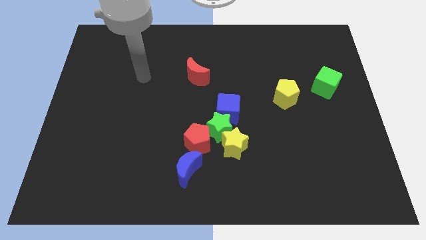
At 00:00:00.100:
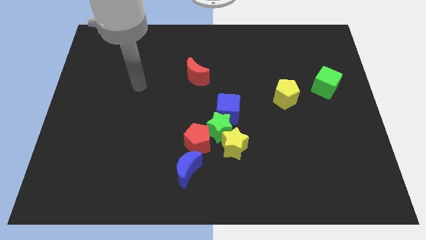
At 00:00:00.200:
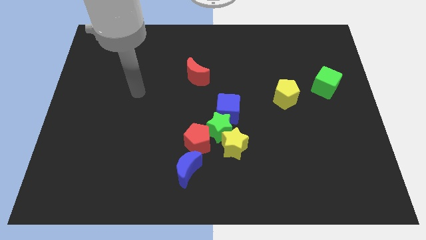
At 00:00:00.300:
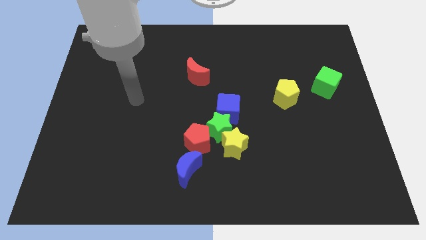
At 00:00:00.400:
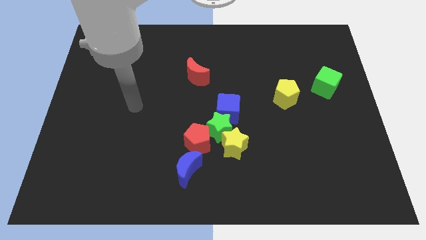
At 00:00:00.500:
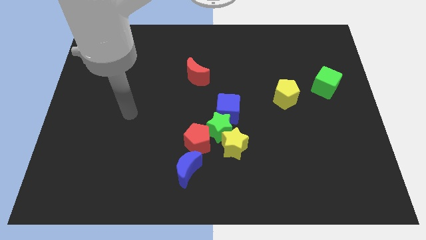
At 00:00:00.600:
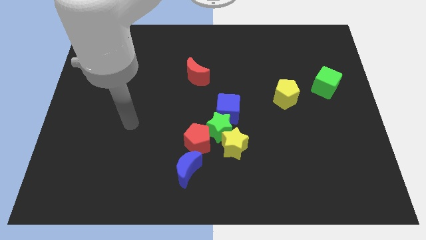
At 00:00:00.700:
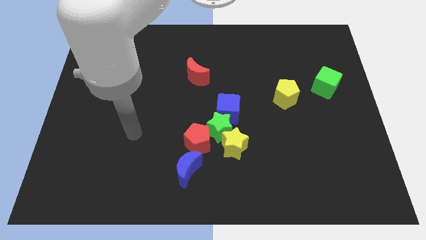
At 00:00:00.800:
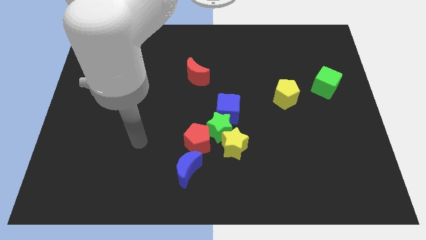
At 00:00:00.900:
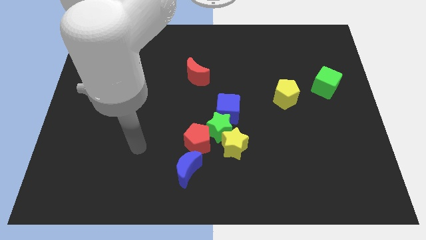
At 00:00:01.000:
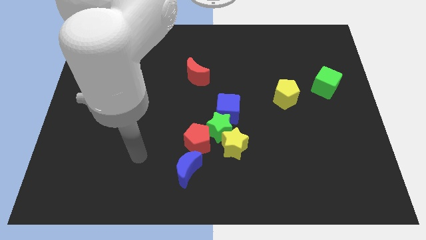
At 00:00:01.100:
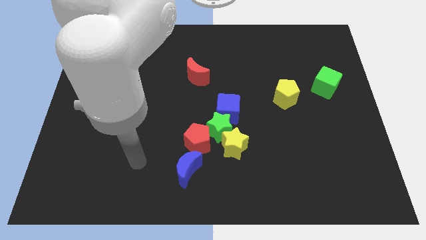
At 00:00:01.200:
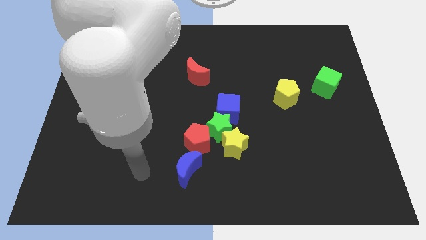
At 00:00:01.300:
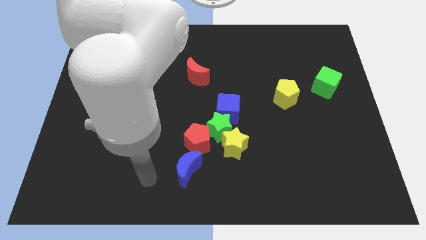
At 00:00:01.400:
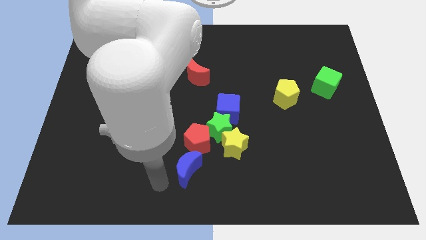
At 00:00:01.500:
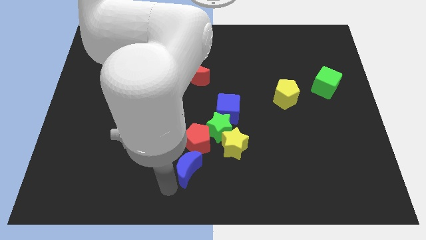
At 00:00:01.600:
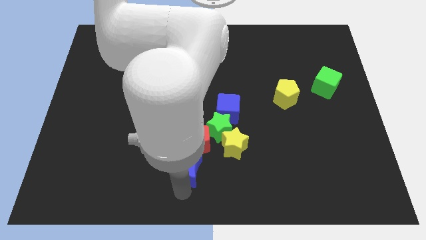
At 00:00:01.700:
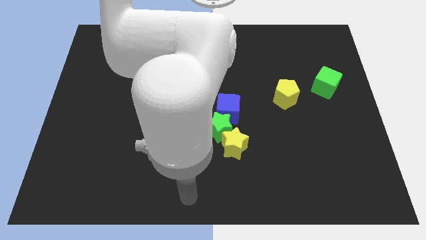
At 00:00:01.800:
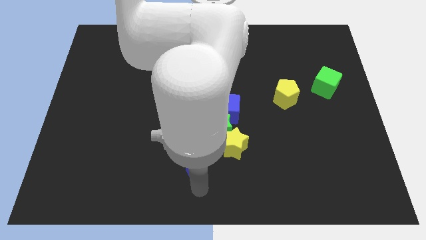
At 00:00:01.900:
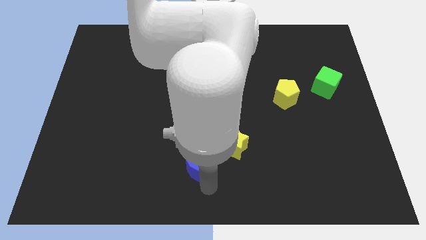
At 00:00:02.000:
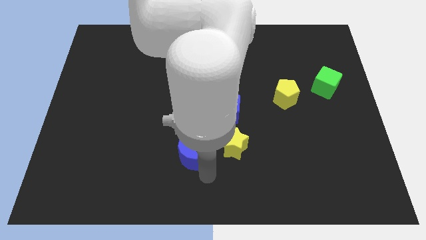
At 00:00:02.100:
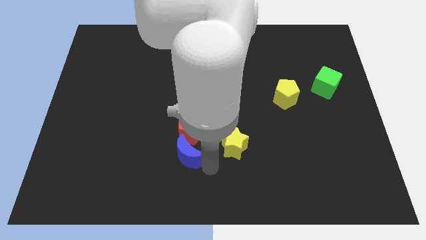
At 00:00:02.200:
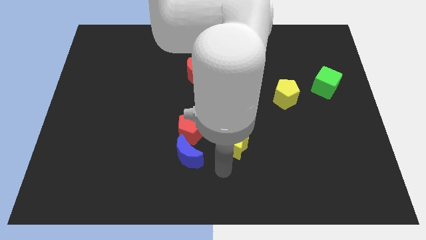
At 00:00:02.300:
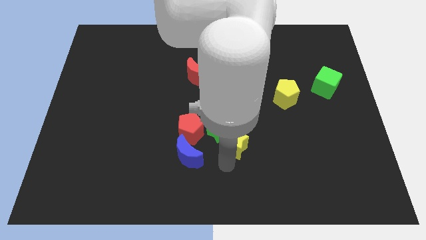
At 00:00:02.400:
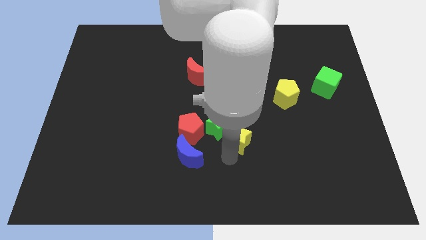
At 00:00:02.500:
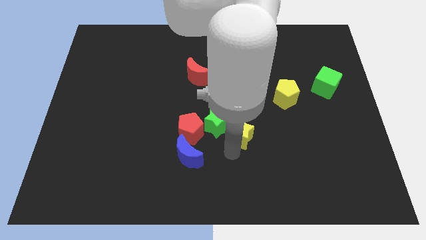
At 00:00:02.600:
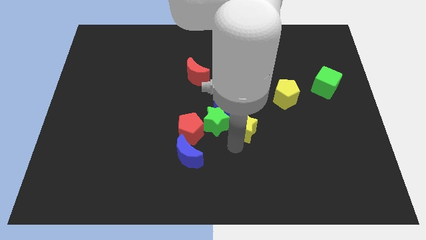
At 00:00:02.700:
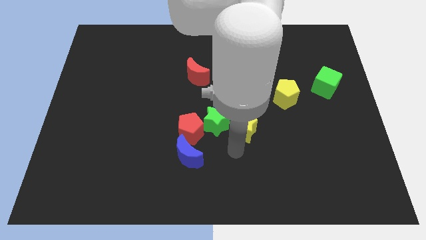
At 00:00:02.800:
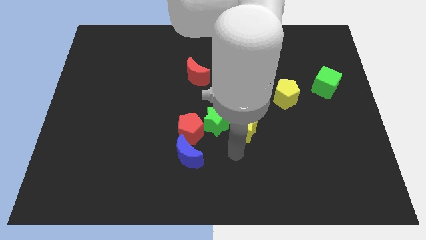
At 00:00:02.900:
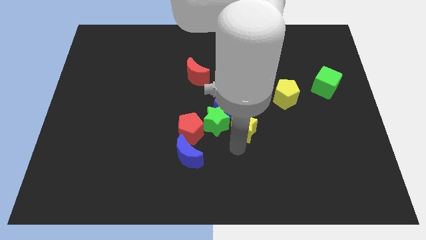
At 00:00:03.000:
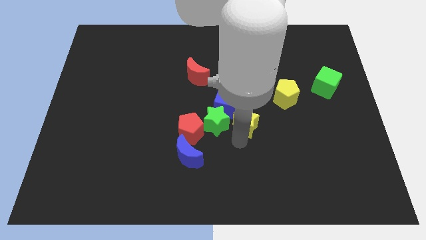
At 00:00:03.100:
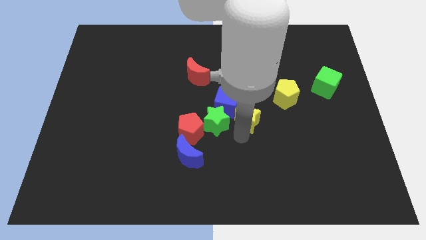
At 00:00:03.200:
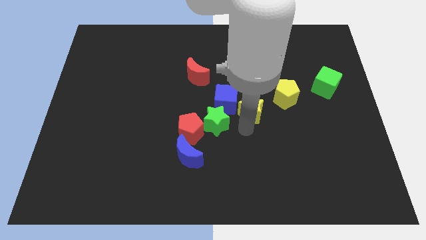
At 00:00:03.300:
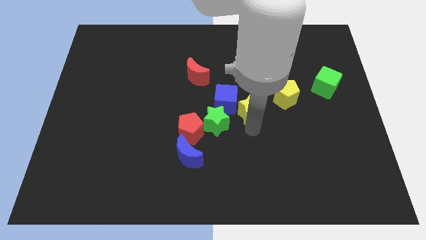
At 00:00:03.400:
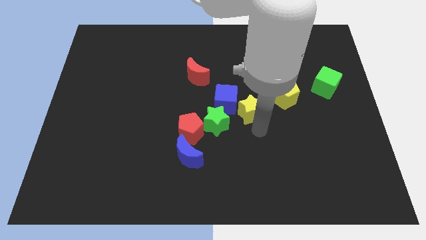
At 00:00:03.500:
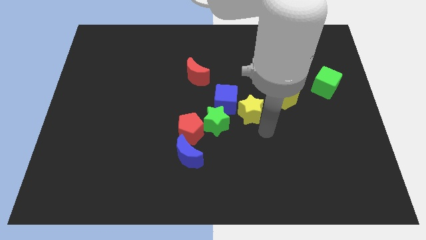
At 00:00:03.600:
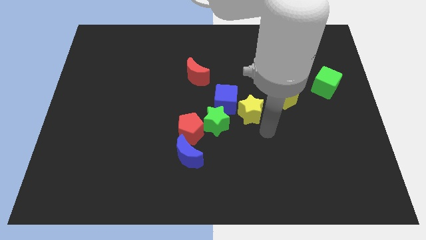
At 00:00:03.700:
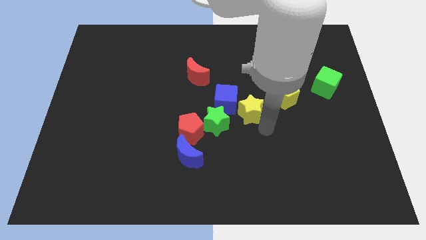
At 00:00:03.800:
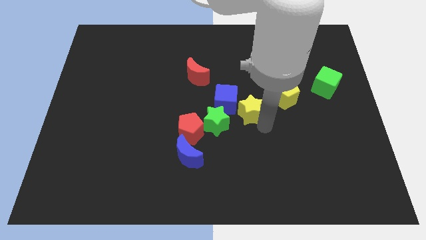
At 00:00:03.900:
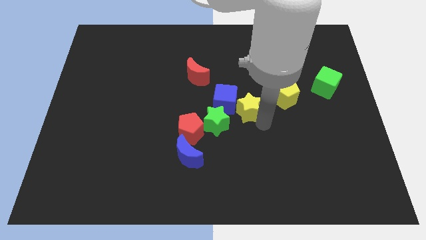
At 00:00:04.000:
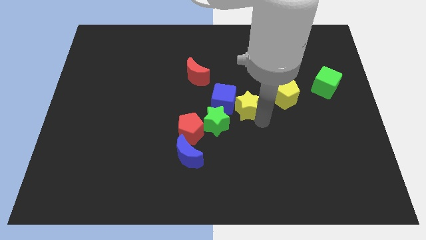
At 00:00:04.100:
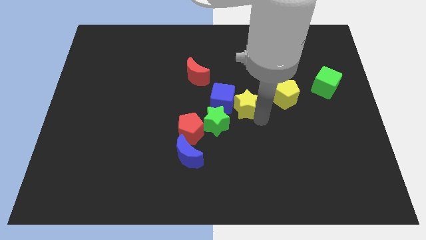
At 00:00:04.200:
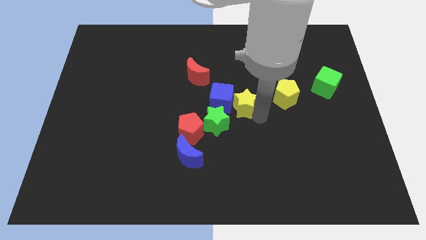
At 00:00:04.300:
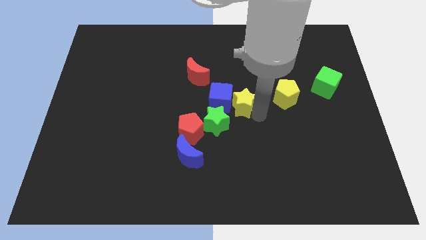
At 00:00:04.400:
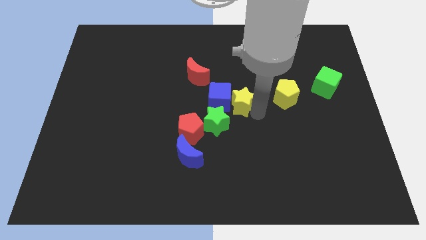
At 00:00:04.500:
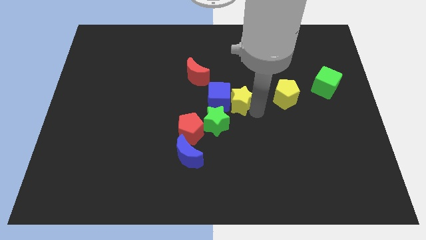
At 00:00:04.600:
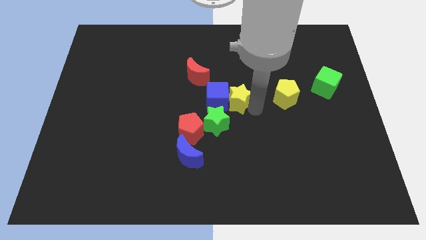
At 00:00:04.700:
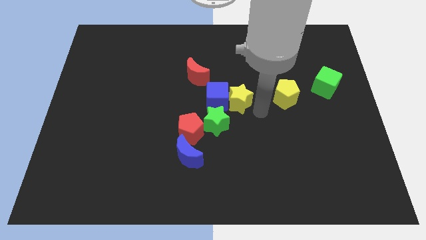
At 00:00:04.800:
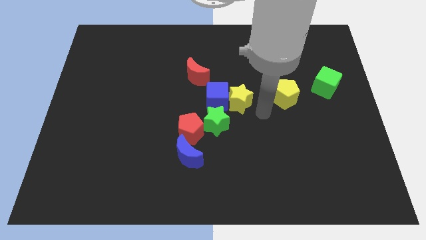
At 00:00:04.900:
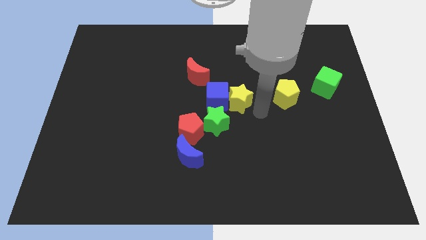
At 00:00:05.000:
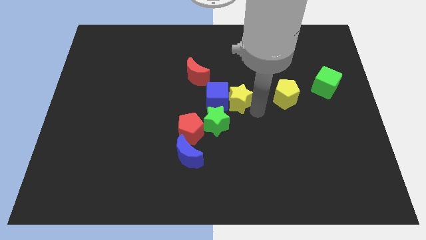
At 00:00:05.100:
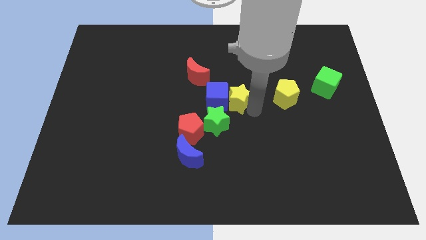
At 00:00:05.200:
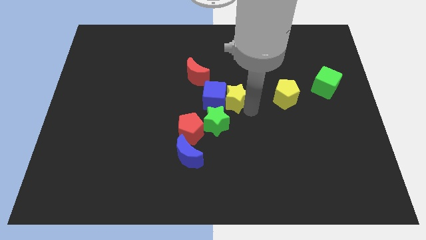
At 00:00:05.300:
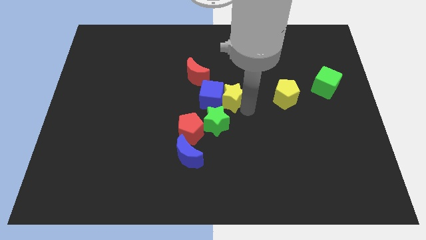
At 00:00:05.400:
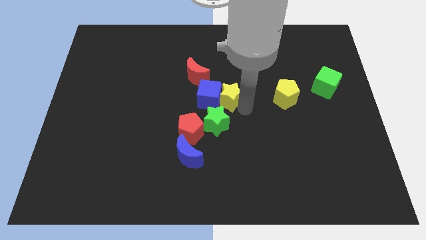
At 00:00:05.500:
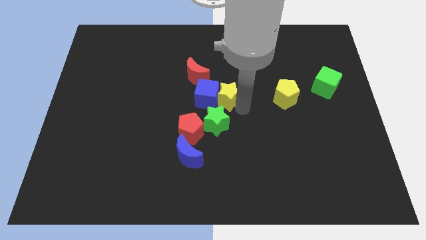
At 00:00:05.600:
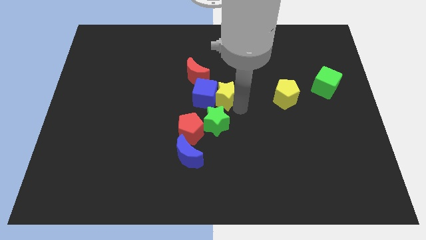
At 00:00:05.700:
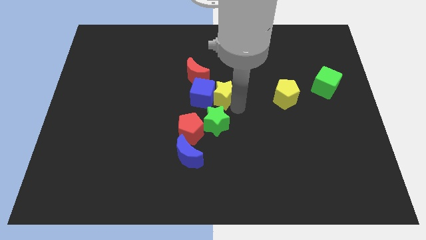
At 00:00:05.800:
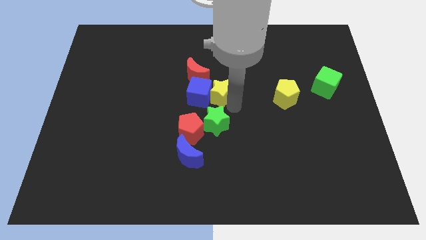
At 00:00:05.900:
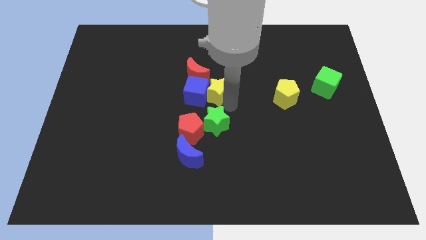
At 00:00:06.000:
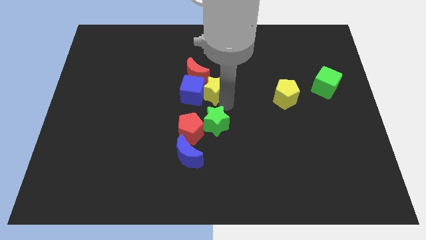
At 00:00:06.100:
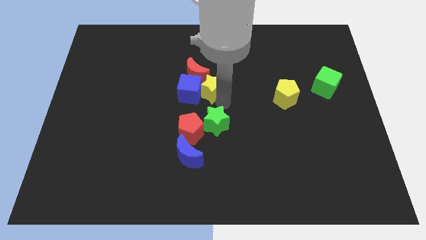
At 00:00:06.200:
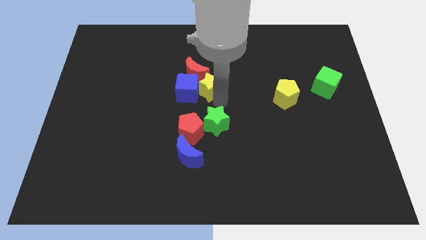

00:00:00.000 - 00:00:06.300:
put the yellow star towards the red moon

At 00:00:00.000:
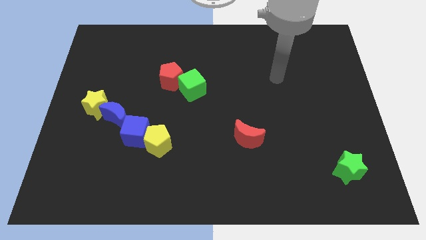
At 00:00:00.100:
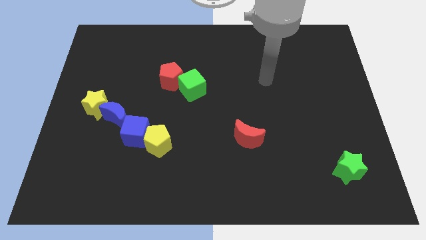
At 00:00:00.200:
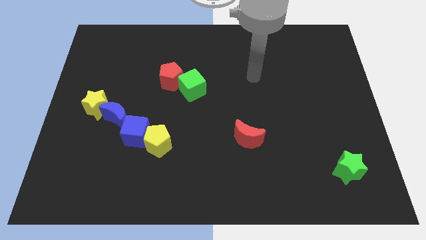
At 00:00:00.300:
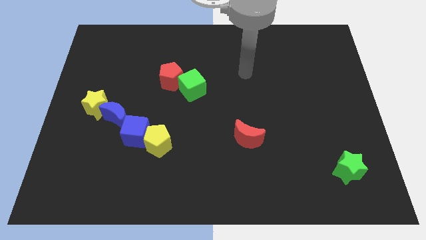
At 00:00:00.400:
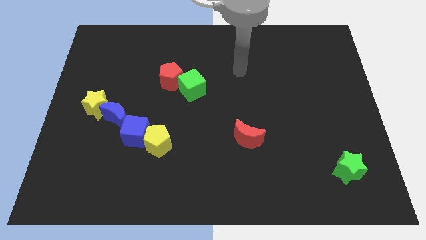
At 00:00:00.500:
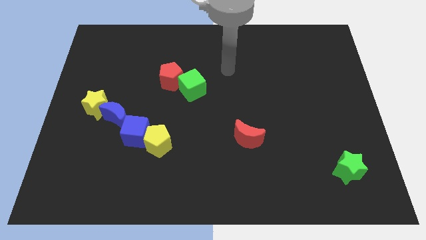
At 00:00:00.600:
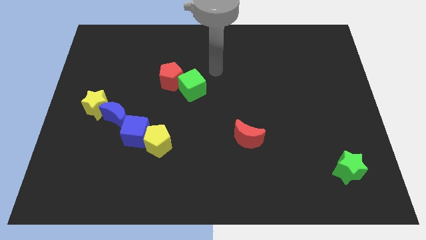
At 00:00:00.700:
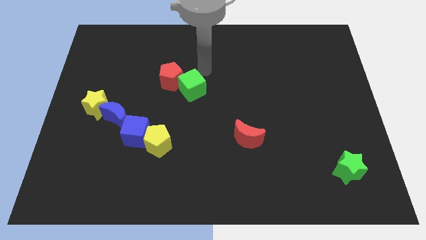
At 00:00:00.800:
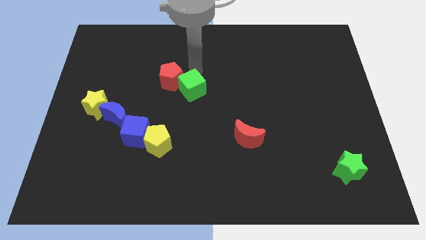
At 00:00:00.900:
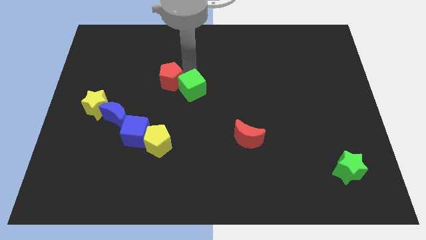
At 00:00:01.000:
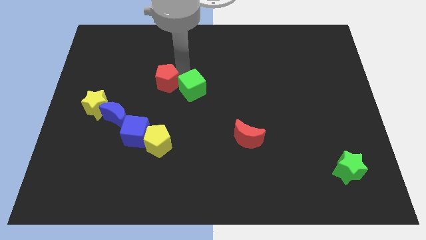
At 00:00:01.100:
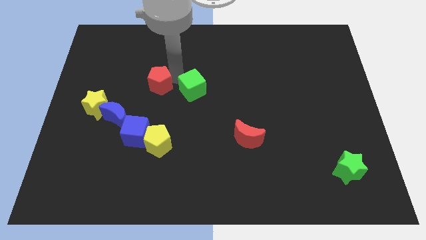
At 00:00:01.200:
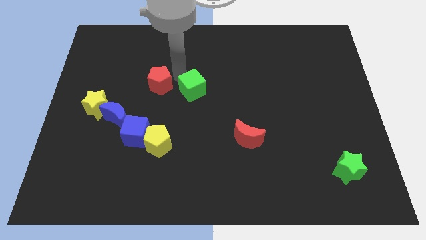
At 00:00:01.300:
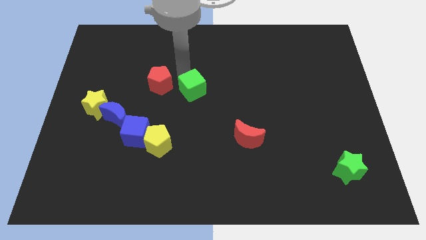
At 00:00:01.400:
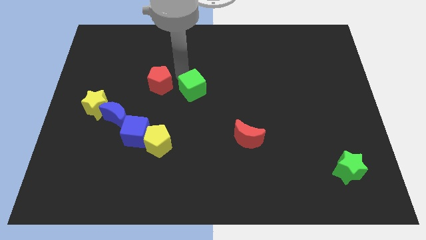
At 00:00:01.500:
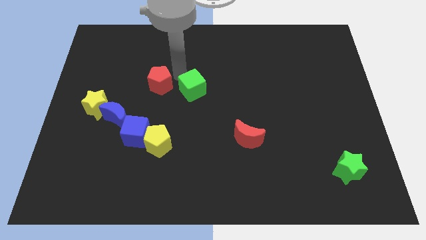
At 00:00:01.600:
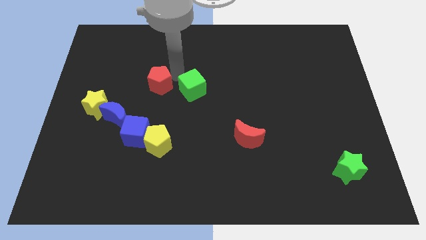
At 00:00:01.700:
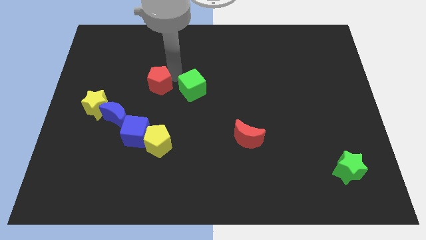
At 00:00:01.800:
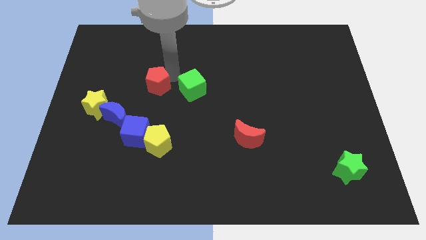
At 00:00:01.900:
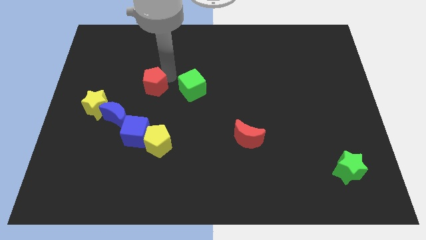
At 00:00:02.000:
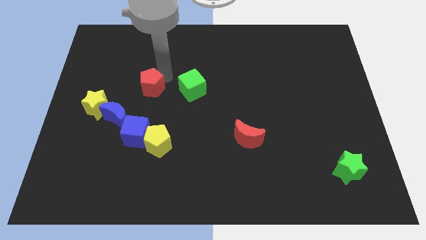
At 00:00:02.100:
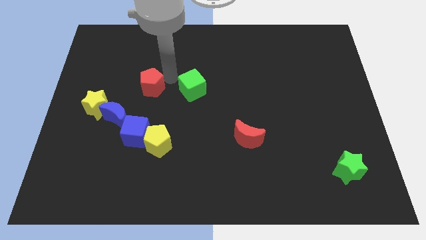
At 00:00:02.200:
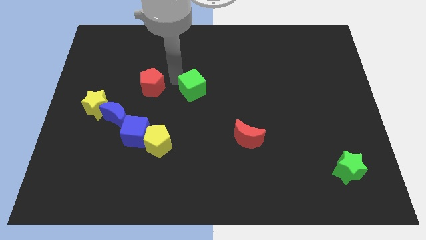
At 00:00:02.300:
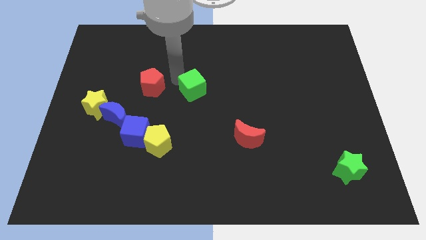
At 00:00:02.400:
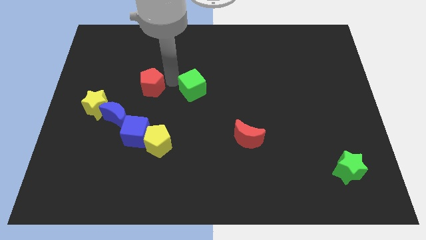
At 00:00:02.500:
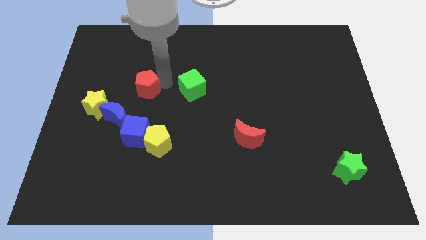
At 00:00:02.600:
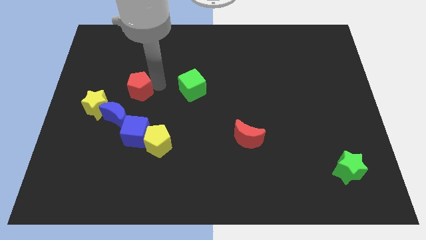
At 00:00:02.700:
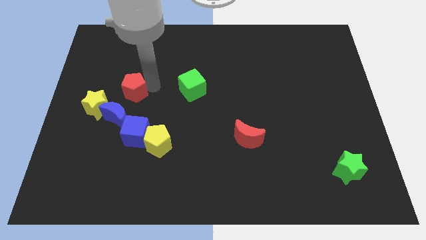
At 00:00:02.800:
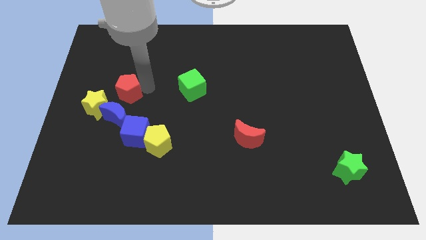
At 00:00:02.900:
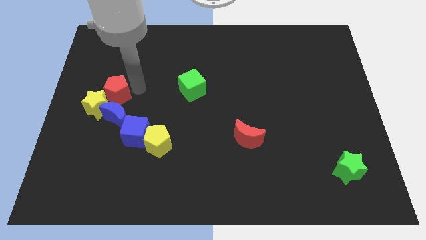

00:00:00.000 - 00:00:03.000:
move the red pentagon towards the yellow star
